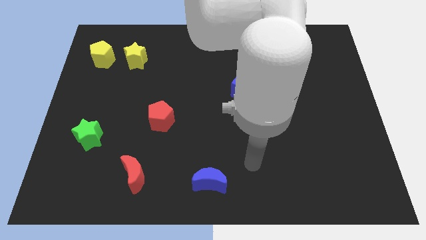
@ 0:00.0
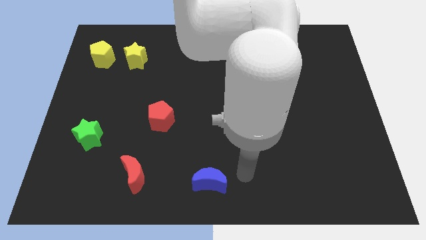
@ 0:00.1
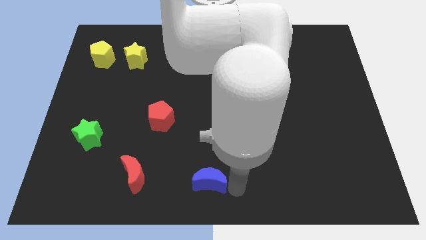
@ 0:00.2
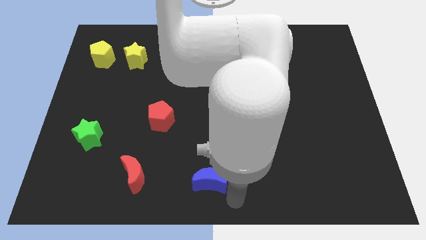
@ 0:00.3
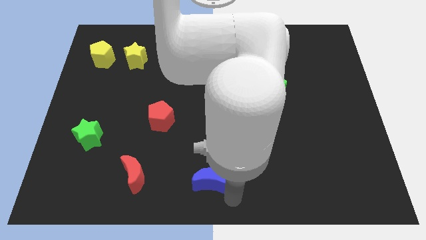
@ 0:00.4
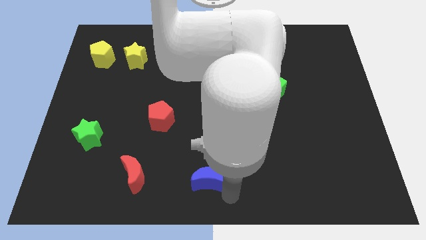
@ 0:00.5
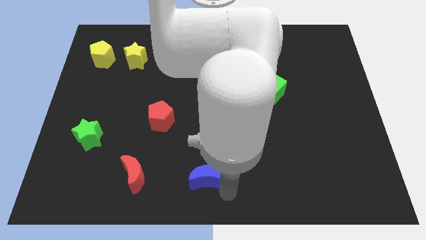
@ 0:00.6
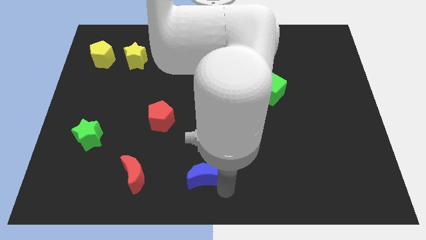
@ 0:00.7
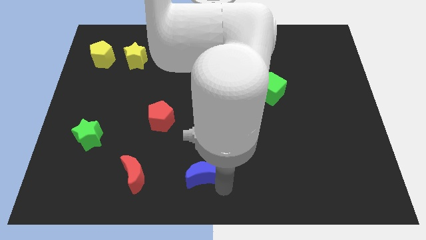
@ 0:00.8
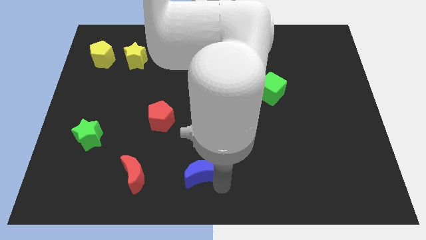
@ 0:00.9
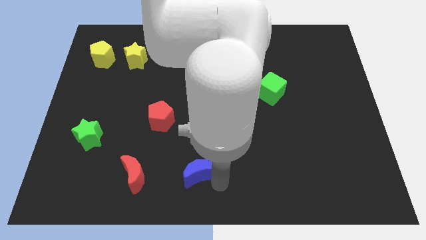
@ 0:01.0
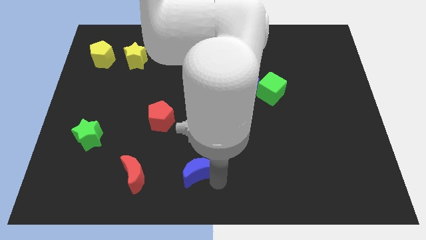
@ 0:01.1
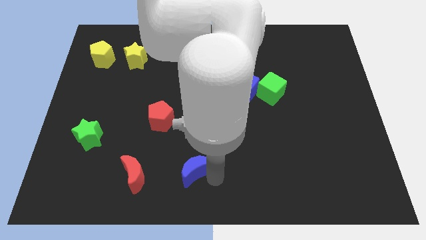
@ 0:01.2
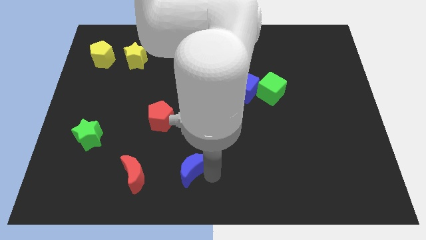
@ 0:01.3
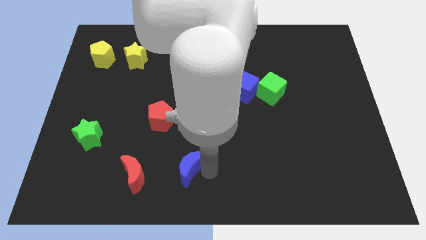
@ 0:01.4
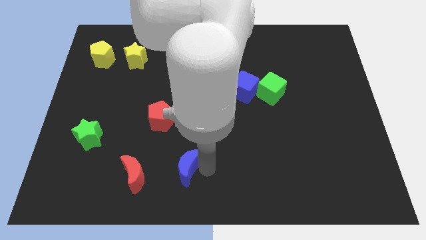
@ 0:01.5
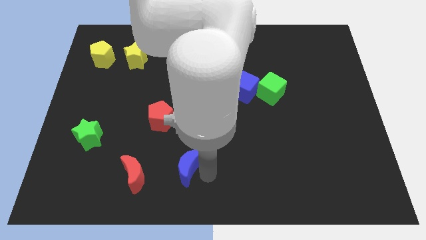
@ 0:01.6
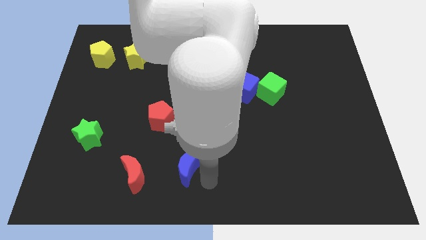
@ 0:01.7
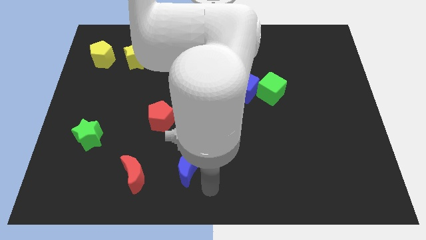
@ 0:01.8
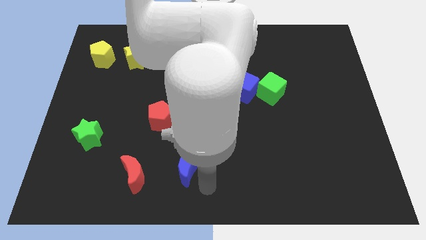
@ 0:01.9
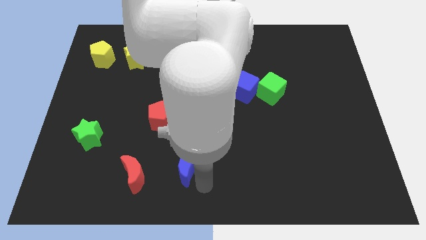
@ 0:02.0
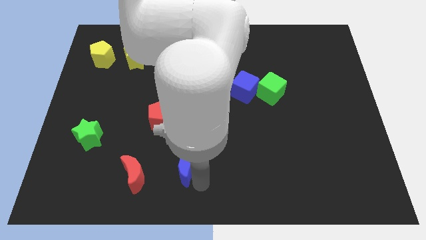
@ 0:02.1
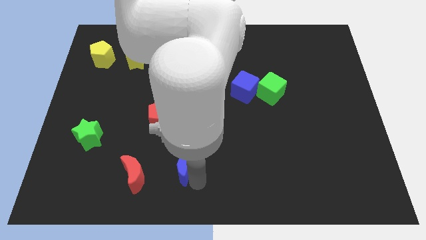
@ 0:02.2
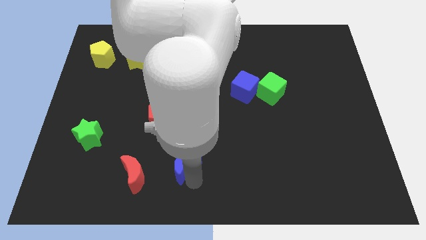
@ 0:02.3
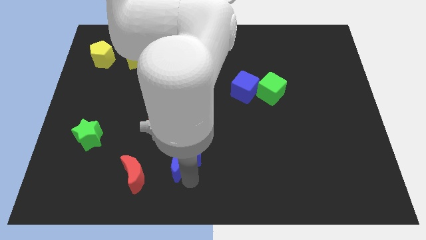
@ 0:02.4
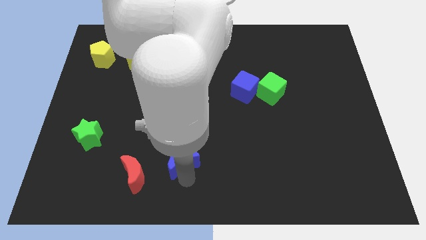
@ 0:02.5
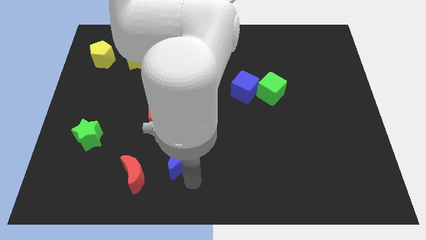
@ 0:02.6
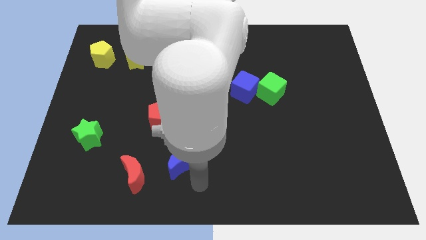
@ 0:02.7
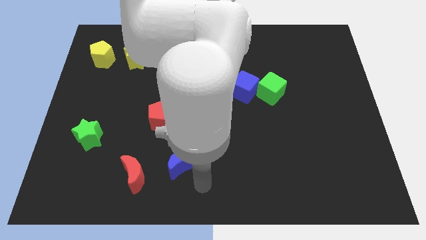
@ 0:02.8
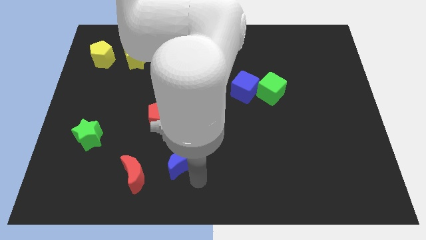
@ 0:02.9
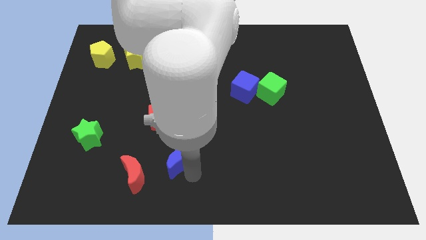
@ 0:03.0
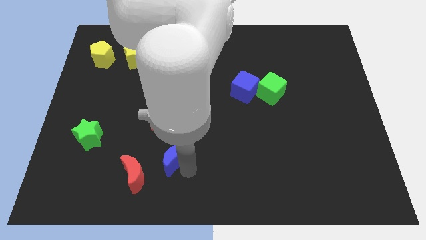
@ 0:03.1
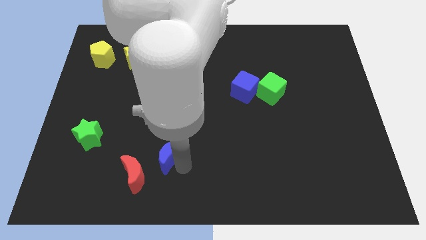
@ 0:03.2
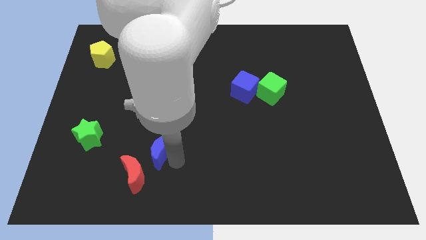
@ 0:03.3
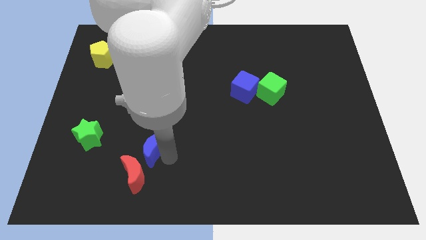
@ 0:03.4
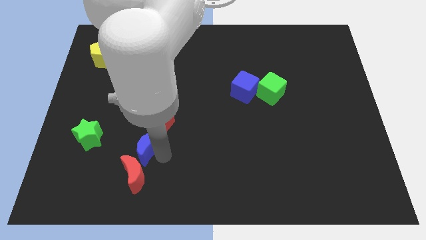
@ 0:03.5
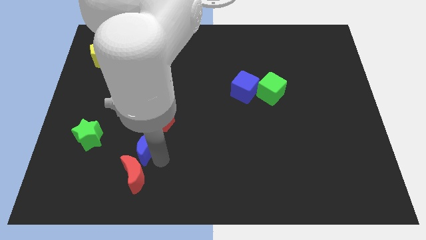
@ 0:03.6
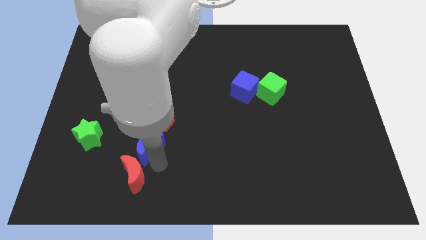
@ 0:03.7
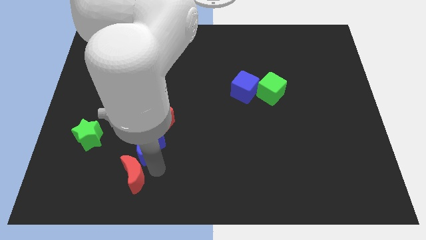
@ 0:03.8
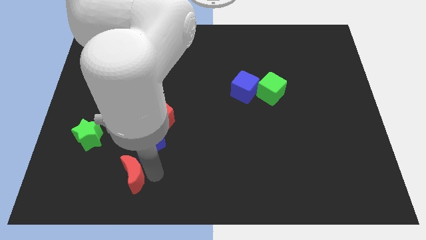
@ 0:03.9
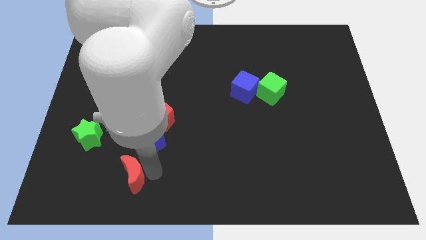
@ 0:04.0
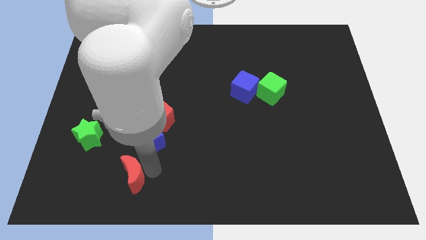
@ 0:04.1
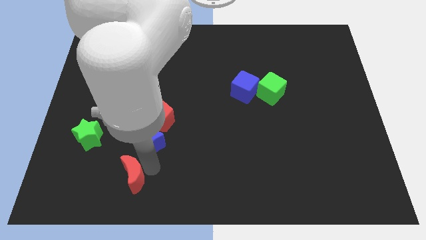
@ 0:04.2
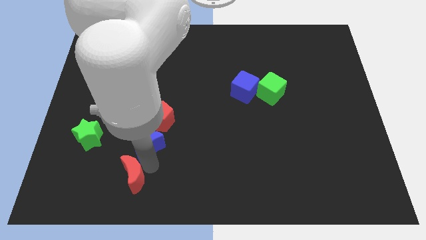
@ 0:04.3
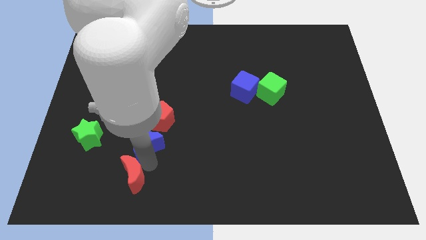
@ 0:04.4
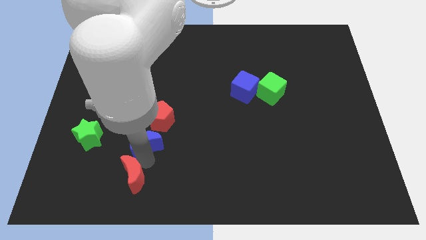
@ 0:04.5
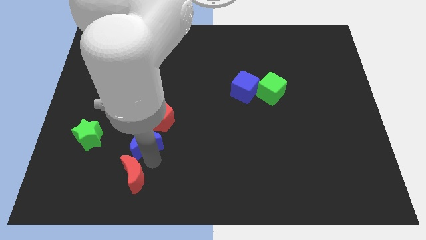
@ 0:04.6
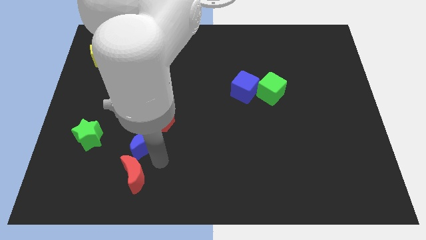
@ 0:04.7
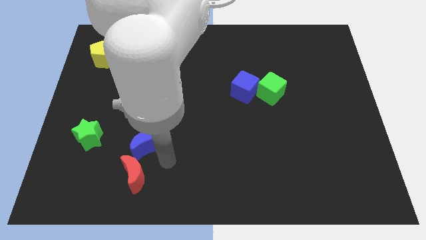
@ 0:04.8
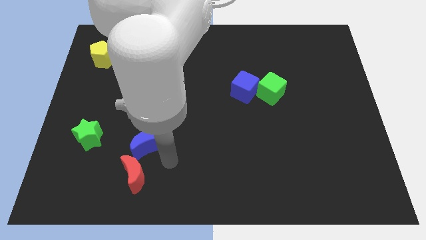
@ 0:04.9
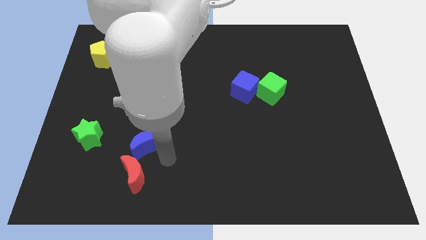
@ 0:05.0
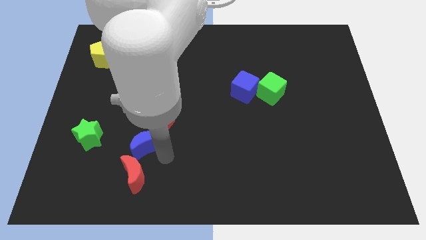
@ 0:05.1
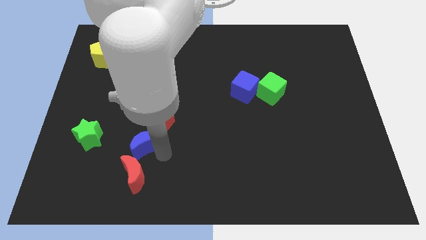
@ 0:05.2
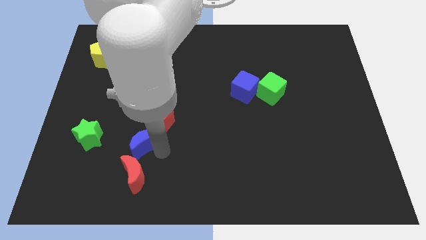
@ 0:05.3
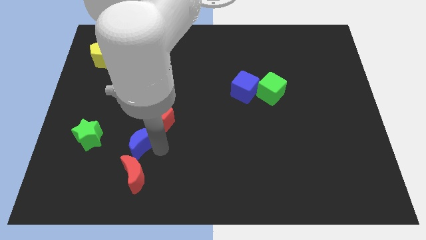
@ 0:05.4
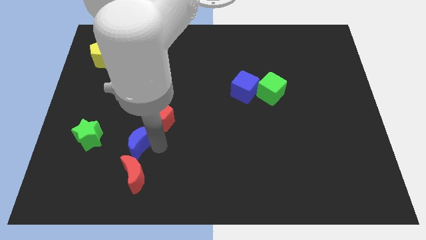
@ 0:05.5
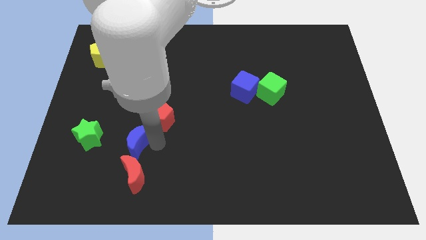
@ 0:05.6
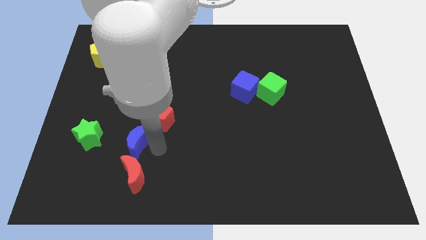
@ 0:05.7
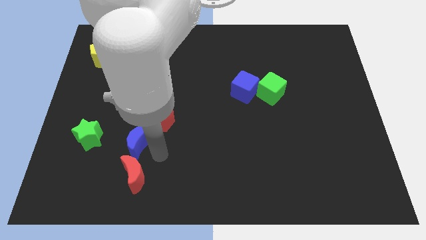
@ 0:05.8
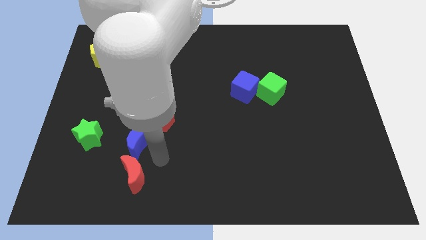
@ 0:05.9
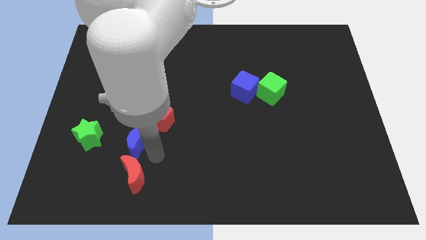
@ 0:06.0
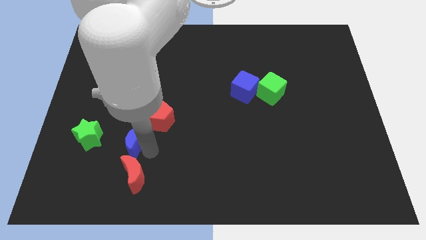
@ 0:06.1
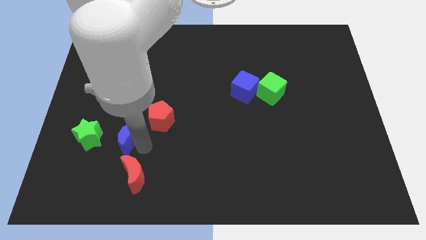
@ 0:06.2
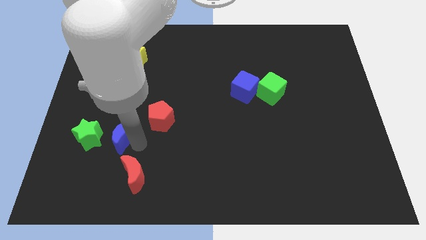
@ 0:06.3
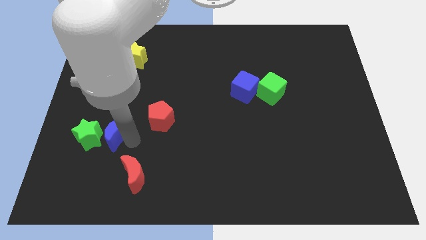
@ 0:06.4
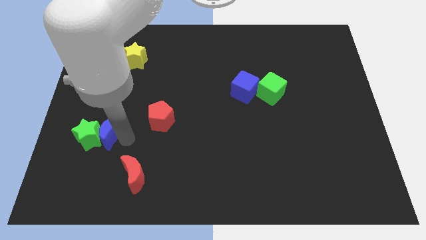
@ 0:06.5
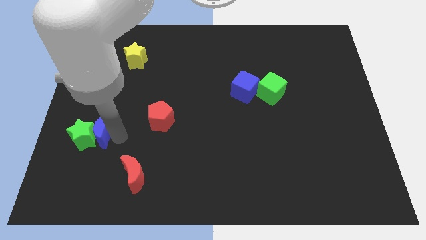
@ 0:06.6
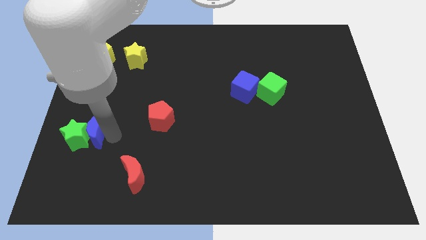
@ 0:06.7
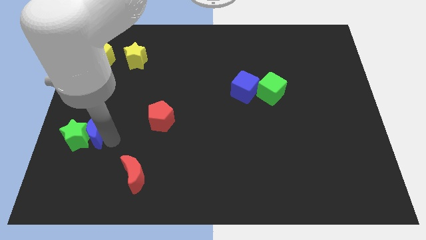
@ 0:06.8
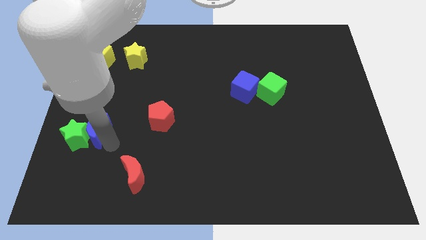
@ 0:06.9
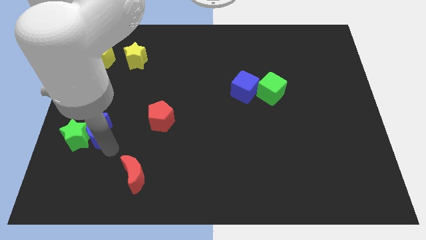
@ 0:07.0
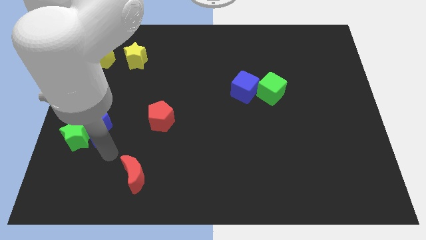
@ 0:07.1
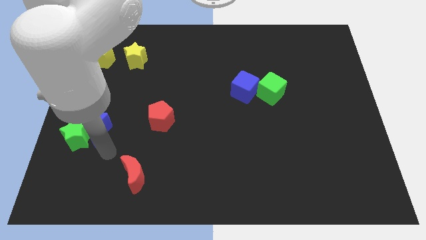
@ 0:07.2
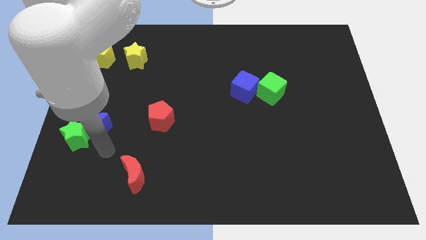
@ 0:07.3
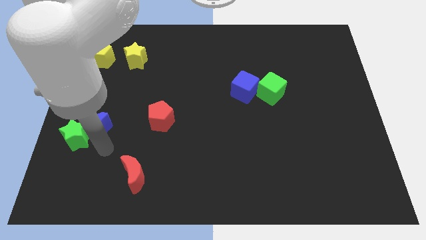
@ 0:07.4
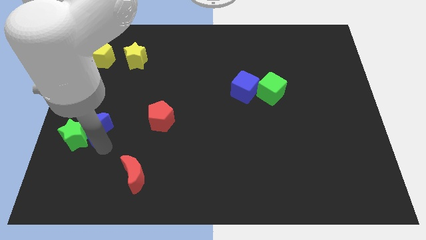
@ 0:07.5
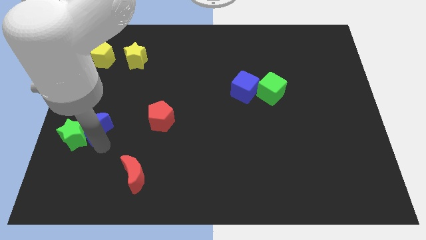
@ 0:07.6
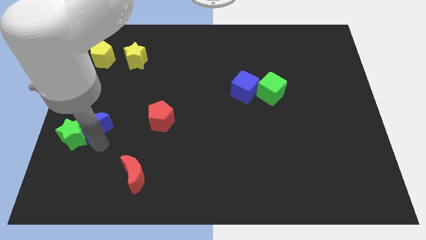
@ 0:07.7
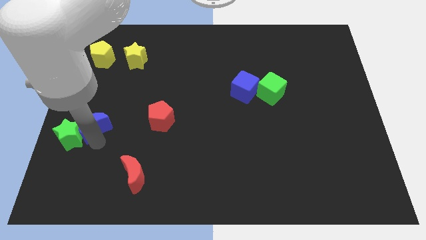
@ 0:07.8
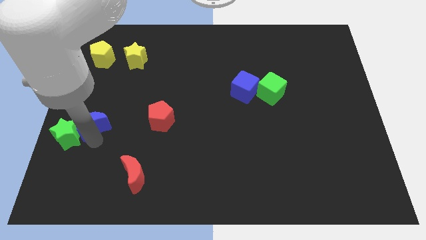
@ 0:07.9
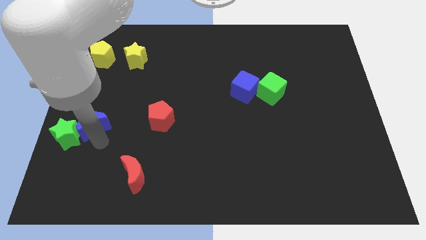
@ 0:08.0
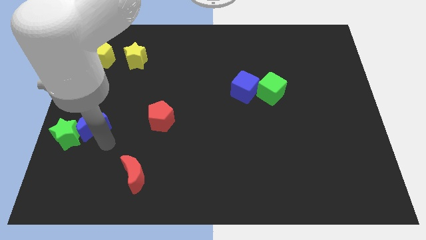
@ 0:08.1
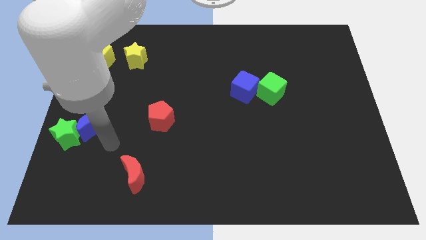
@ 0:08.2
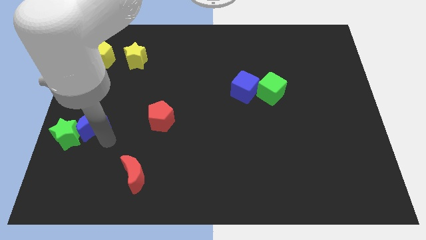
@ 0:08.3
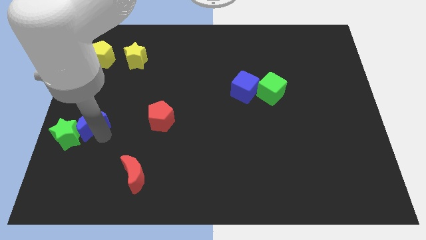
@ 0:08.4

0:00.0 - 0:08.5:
slide the blue moon to the left side
